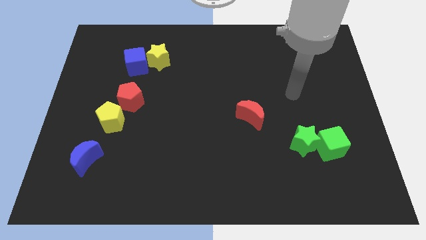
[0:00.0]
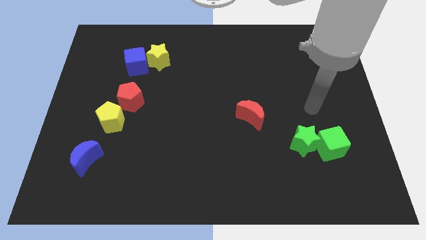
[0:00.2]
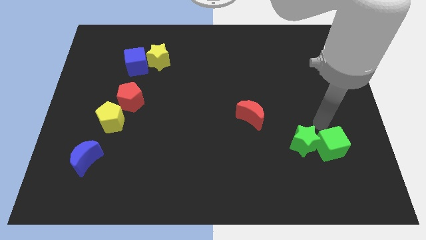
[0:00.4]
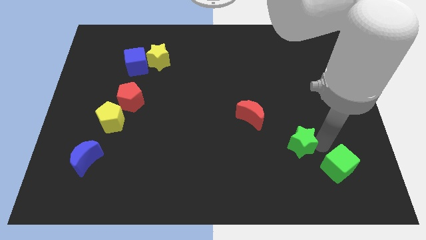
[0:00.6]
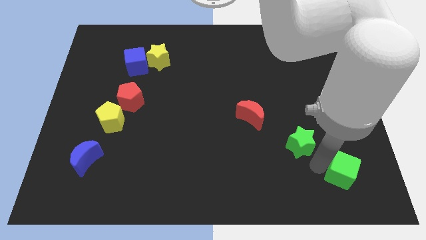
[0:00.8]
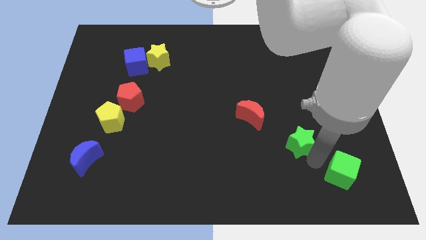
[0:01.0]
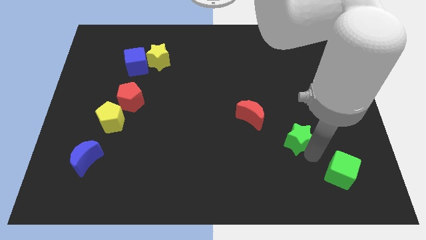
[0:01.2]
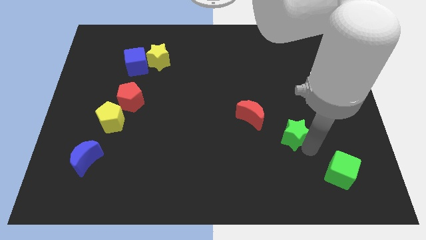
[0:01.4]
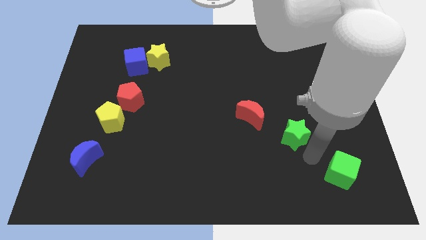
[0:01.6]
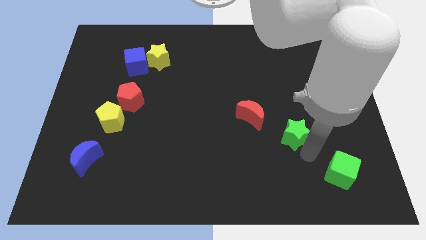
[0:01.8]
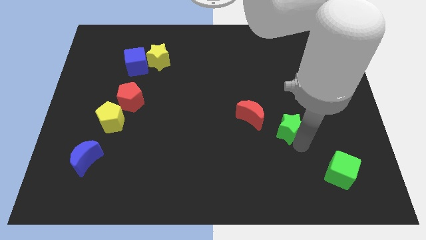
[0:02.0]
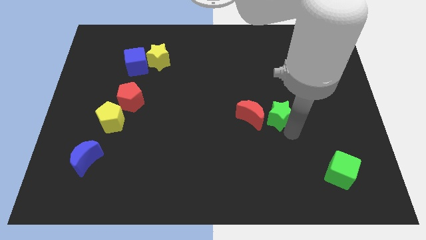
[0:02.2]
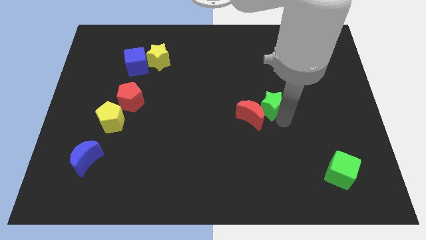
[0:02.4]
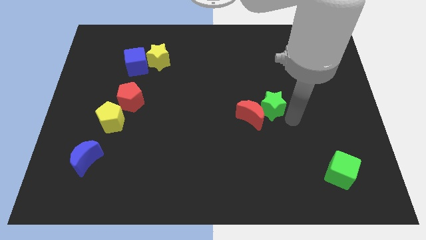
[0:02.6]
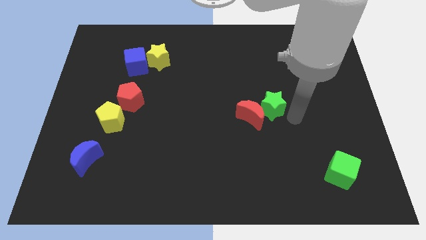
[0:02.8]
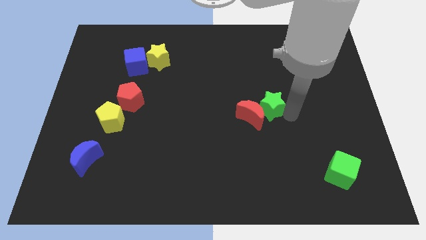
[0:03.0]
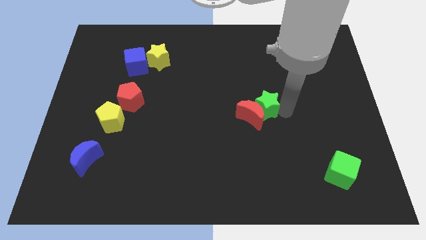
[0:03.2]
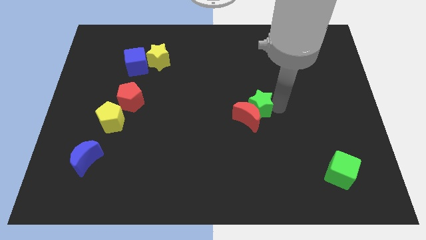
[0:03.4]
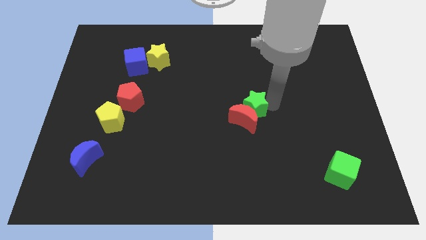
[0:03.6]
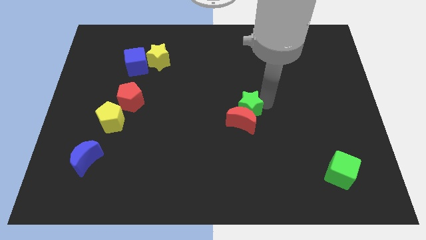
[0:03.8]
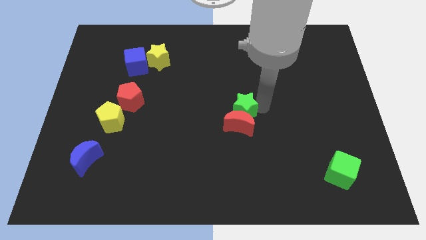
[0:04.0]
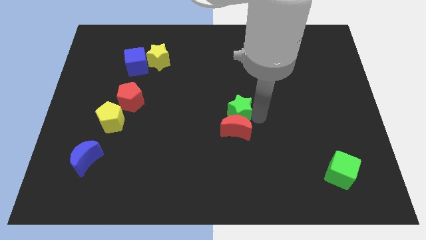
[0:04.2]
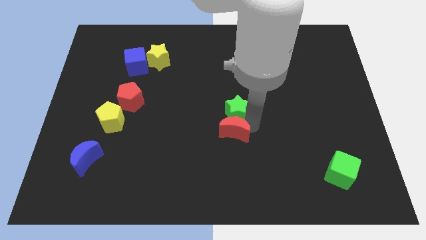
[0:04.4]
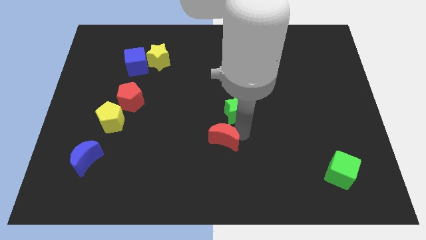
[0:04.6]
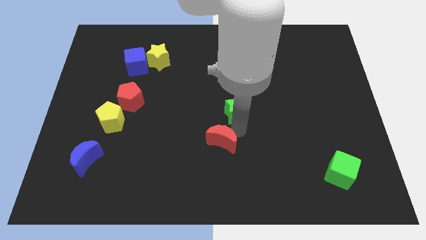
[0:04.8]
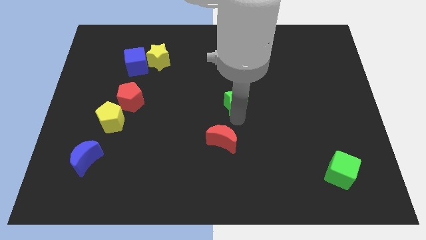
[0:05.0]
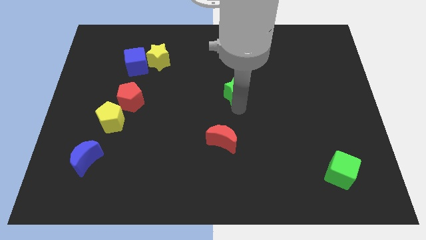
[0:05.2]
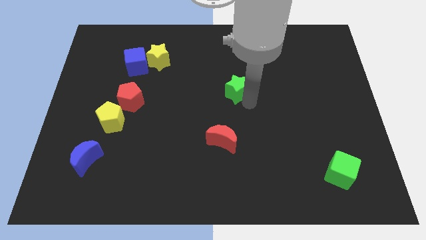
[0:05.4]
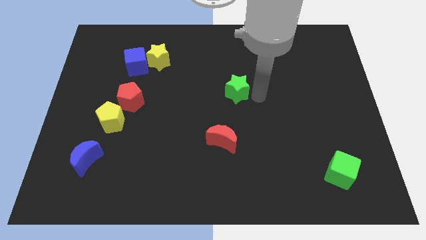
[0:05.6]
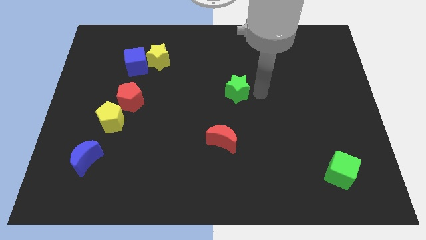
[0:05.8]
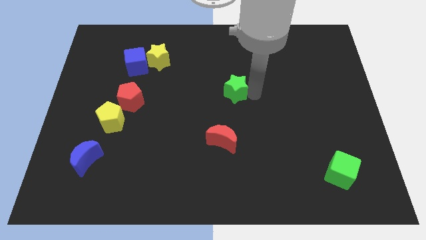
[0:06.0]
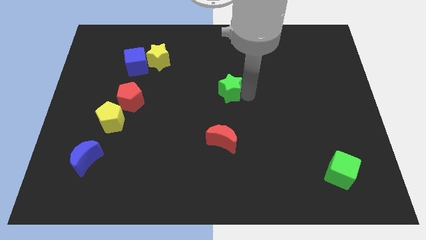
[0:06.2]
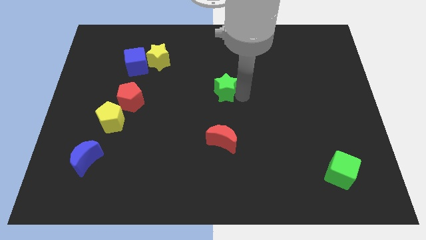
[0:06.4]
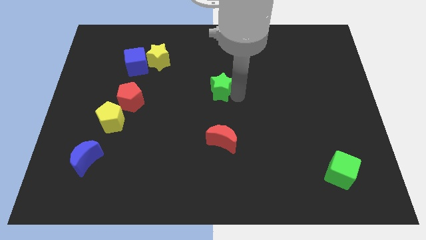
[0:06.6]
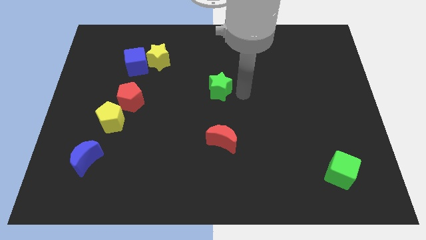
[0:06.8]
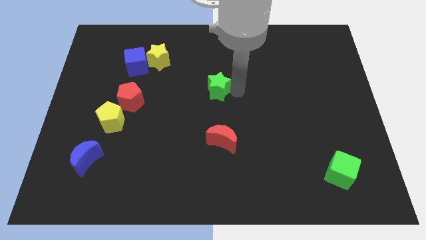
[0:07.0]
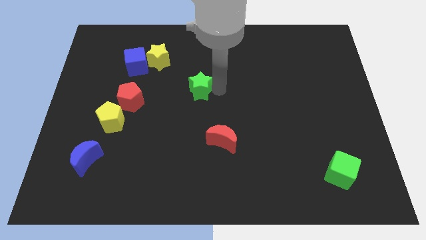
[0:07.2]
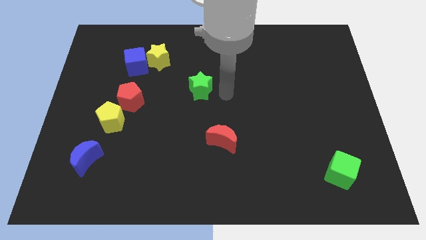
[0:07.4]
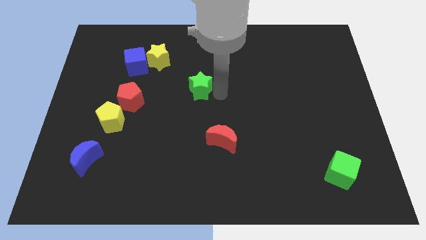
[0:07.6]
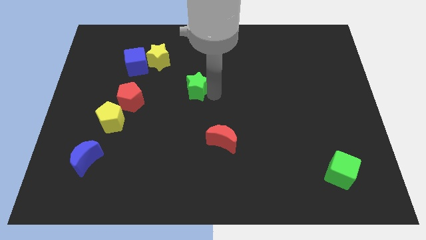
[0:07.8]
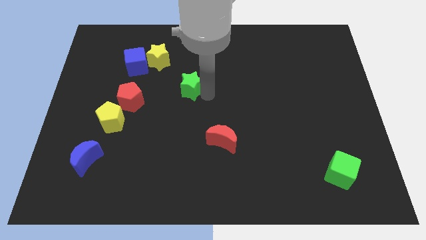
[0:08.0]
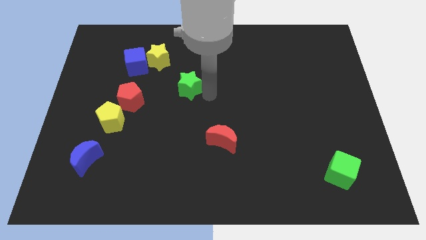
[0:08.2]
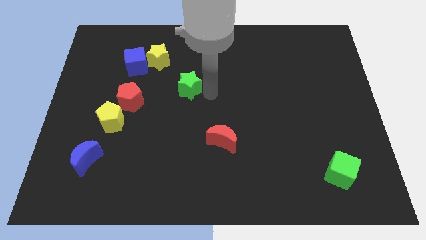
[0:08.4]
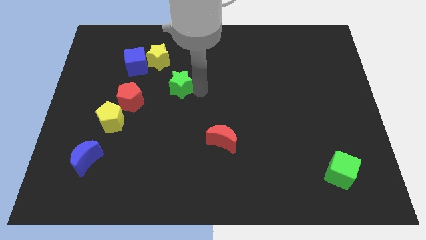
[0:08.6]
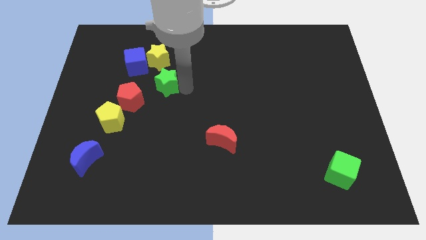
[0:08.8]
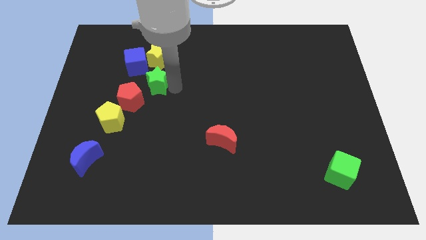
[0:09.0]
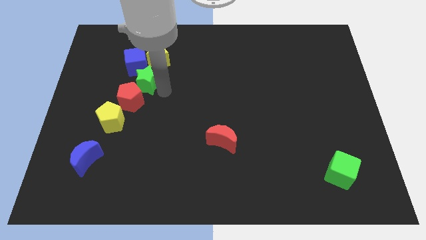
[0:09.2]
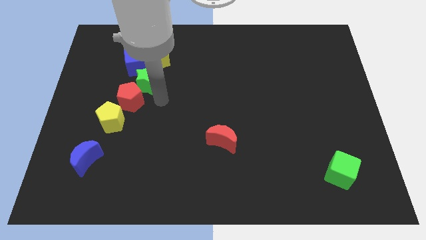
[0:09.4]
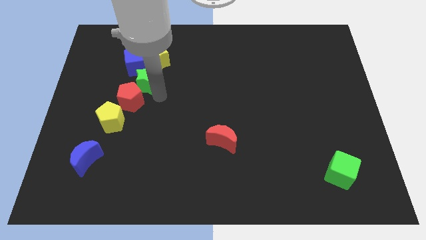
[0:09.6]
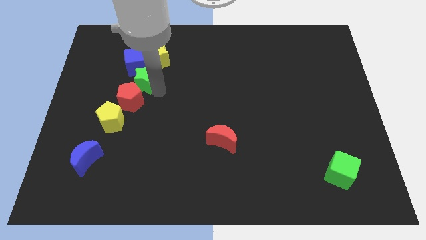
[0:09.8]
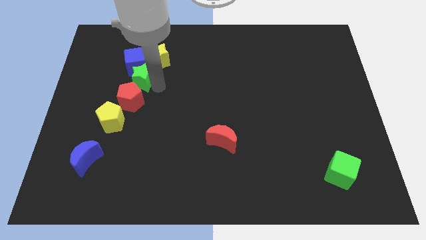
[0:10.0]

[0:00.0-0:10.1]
push the green star close to the blue cube

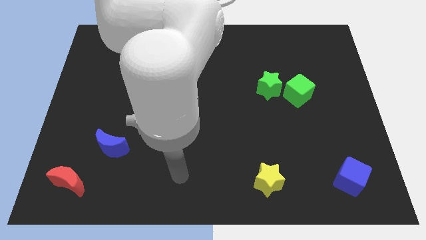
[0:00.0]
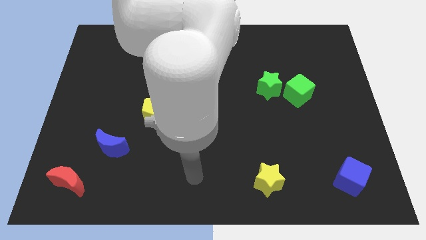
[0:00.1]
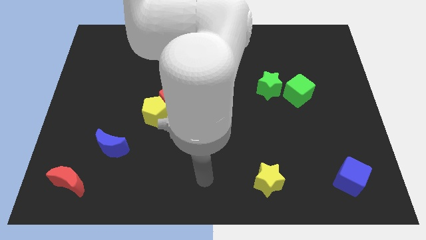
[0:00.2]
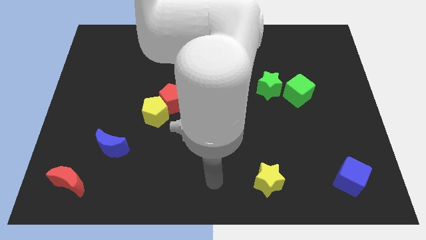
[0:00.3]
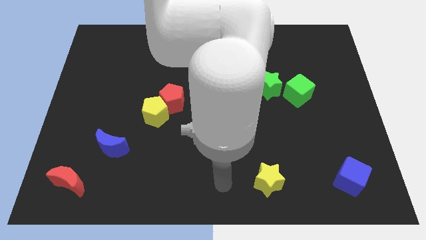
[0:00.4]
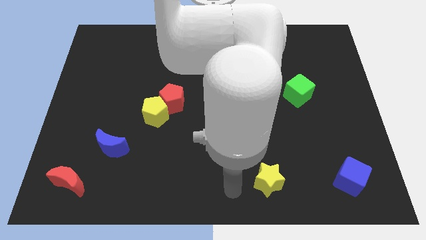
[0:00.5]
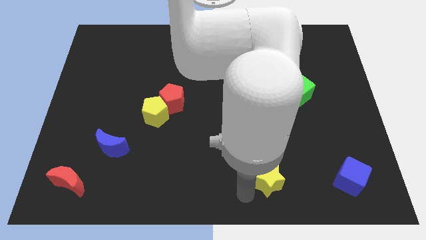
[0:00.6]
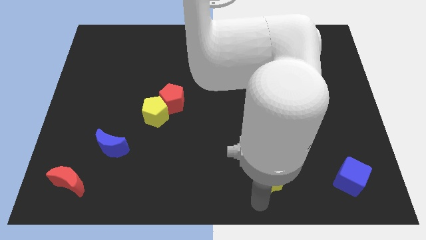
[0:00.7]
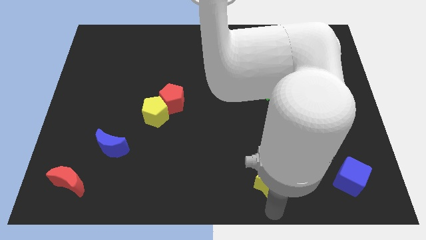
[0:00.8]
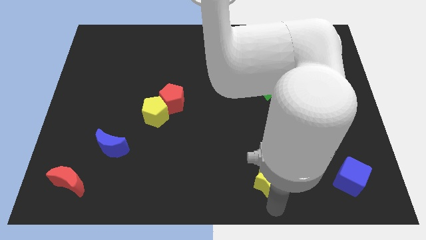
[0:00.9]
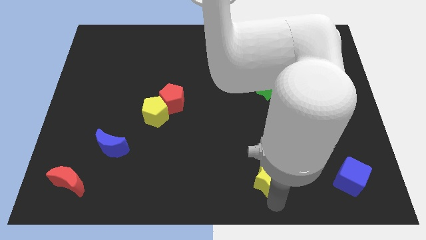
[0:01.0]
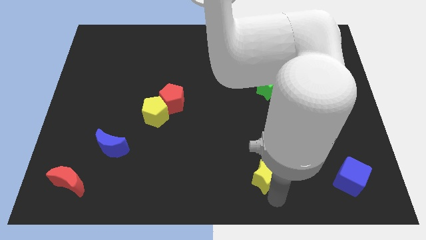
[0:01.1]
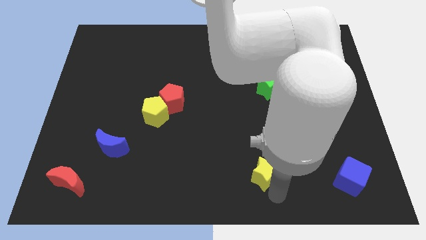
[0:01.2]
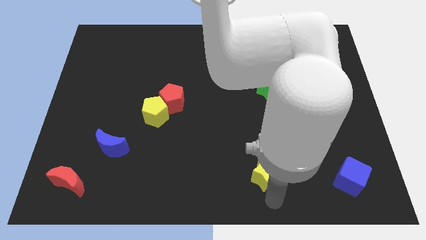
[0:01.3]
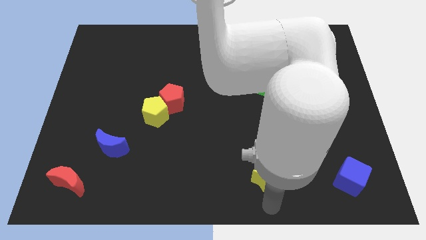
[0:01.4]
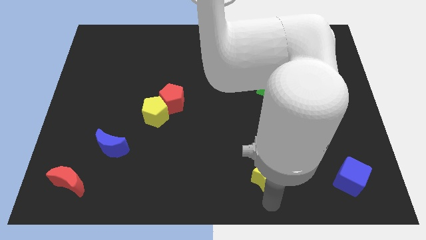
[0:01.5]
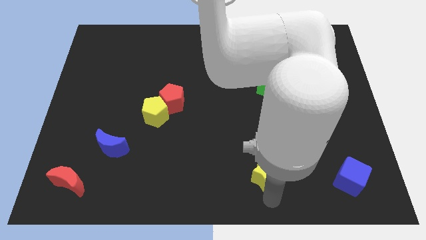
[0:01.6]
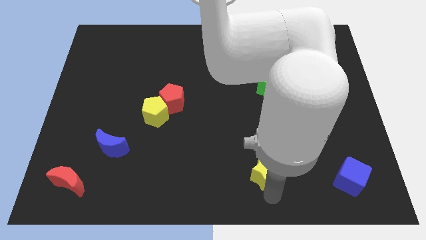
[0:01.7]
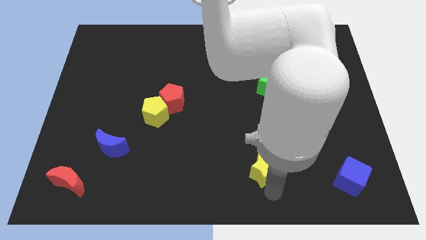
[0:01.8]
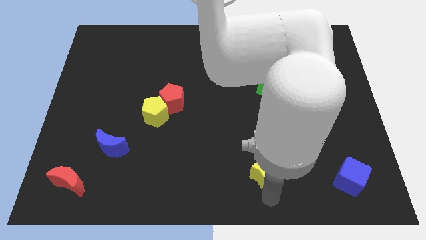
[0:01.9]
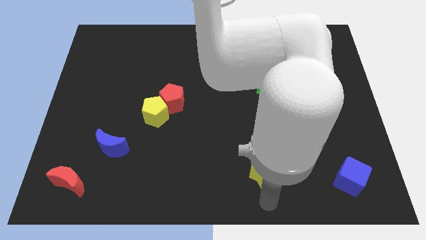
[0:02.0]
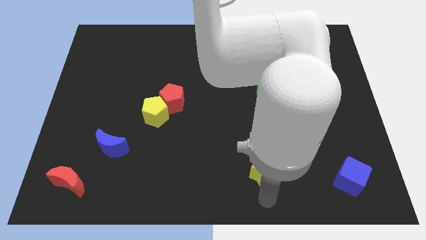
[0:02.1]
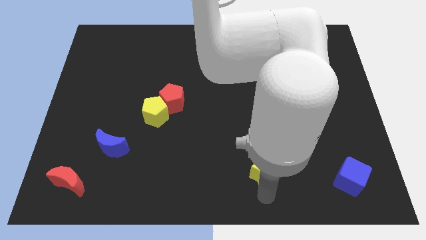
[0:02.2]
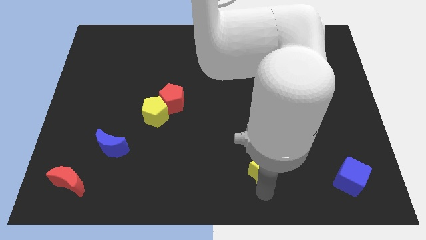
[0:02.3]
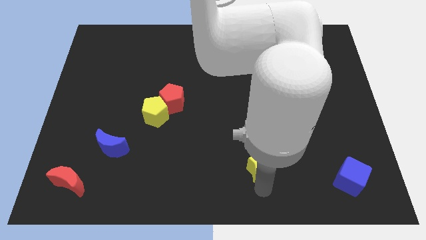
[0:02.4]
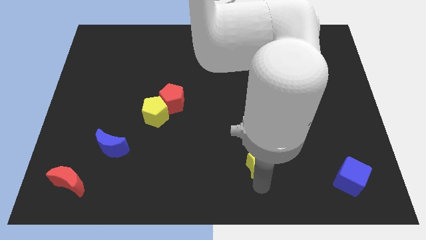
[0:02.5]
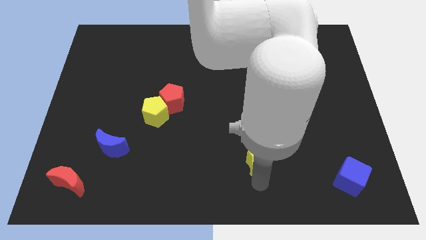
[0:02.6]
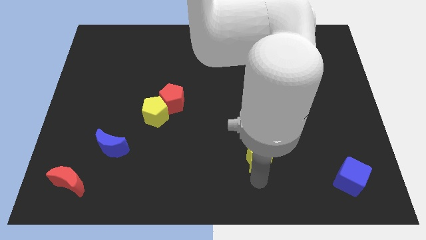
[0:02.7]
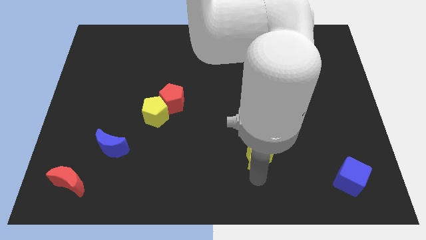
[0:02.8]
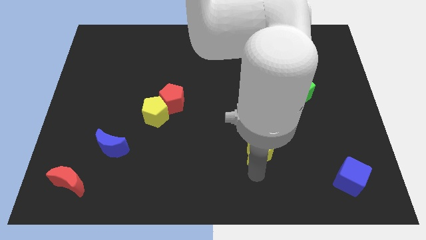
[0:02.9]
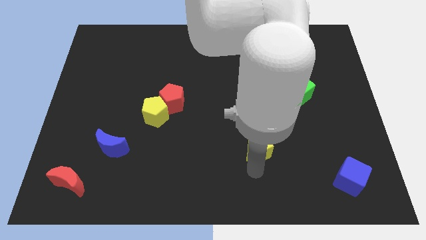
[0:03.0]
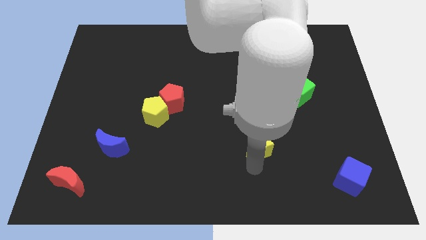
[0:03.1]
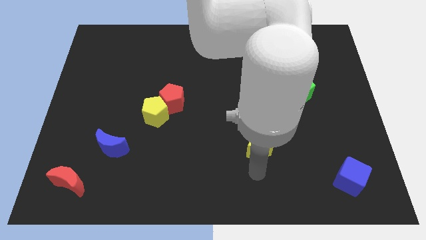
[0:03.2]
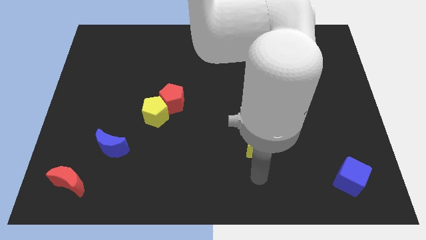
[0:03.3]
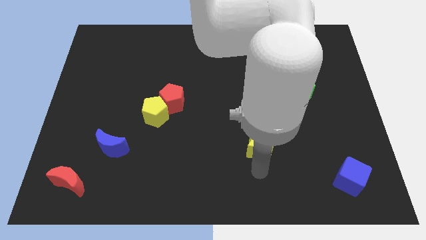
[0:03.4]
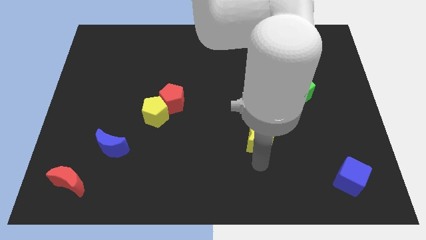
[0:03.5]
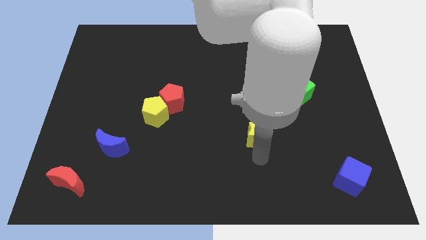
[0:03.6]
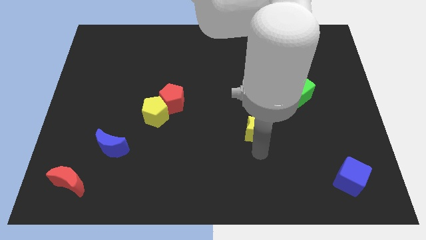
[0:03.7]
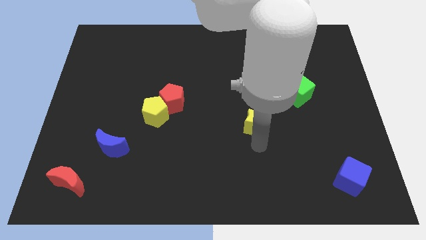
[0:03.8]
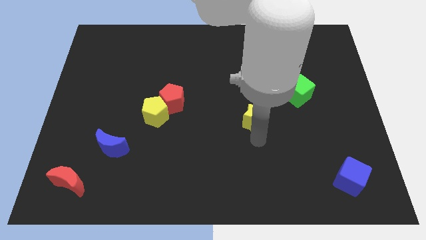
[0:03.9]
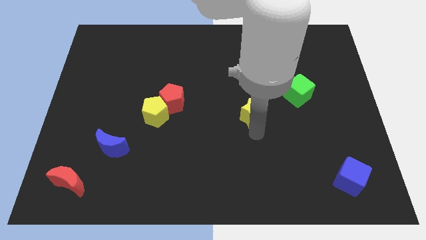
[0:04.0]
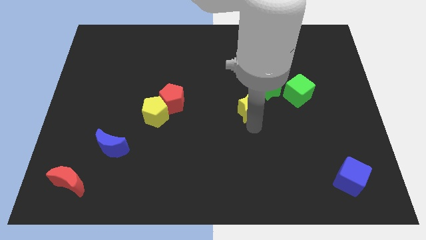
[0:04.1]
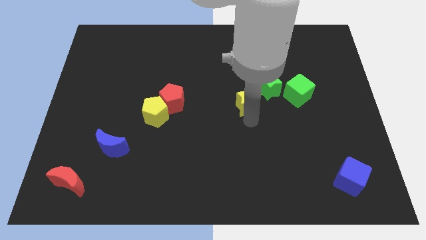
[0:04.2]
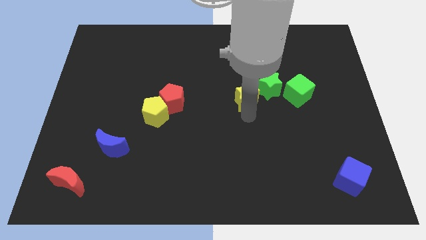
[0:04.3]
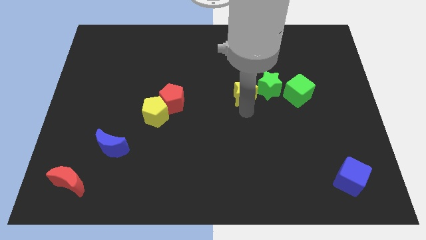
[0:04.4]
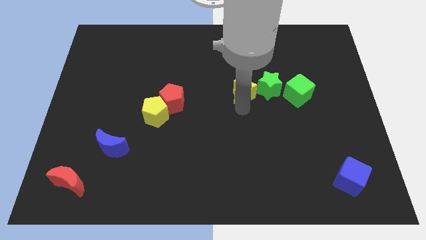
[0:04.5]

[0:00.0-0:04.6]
slide the yellow star close to the green star
